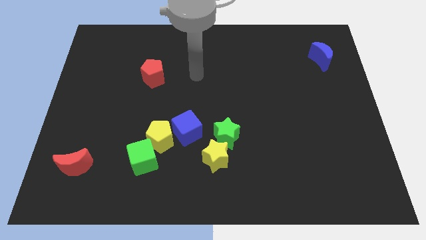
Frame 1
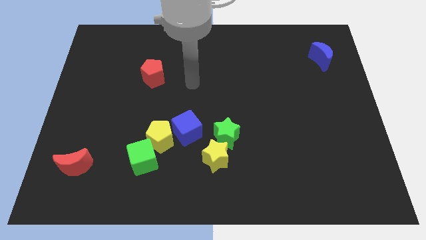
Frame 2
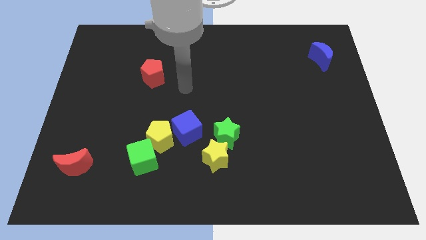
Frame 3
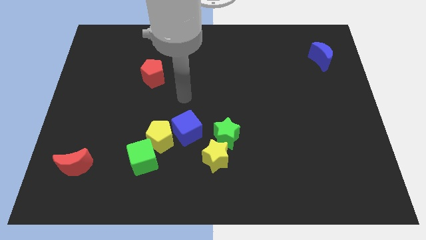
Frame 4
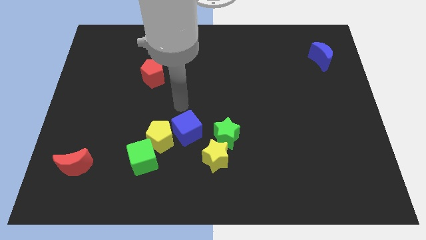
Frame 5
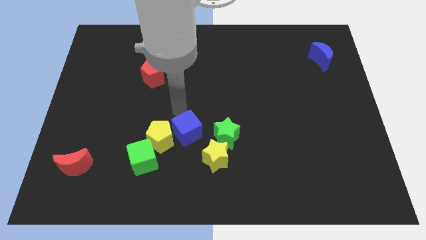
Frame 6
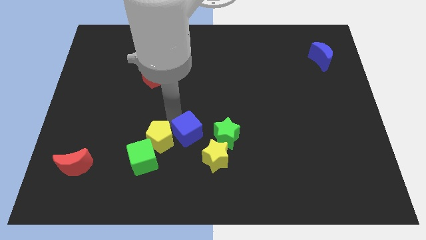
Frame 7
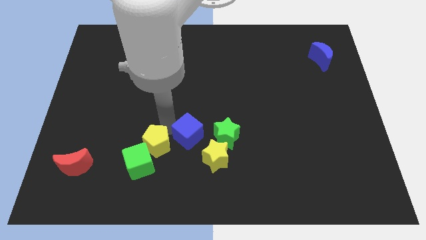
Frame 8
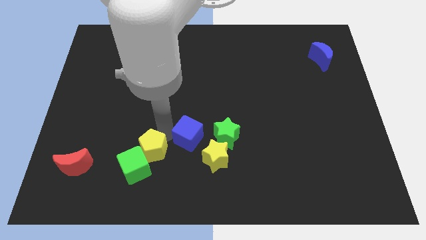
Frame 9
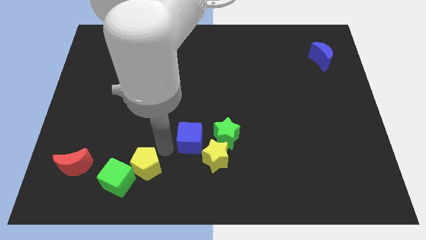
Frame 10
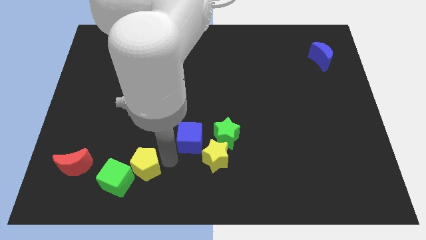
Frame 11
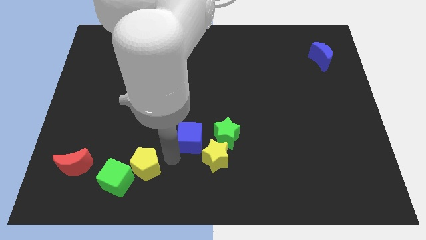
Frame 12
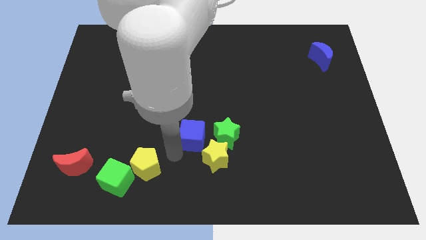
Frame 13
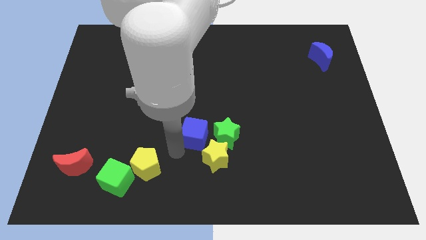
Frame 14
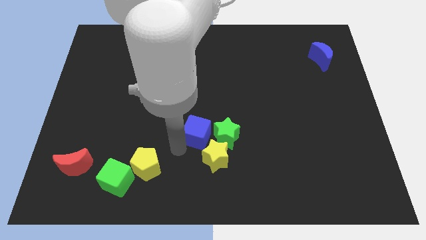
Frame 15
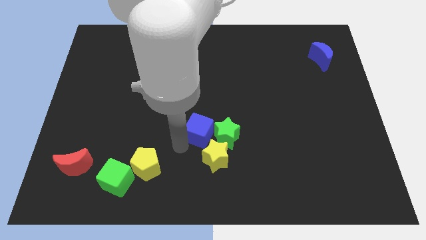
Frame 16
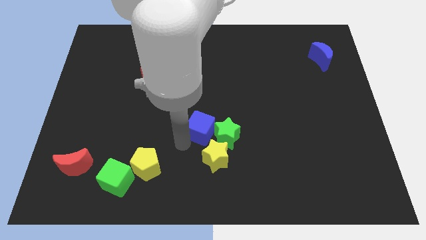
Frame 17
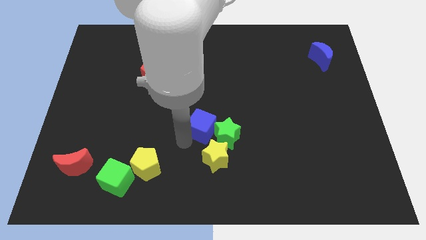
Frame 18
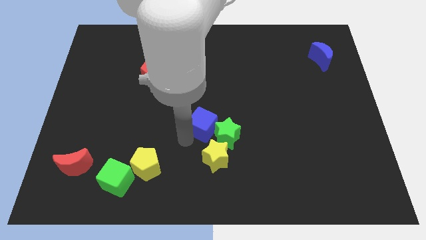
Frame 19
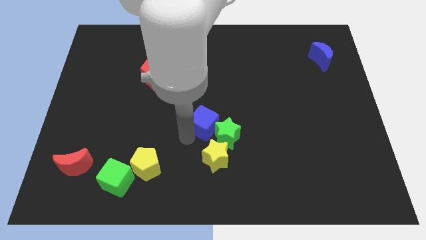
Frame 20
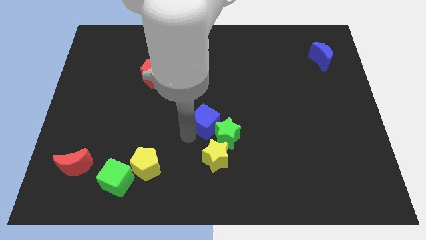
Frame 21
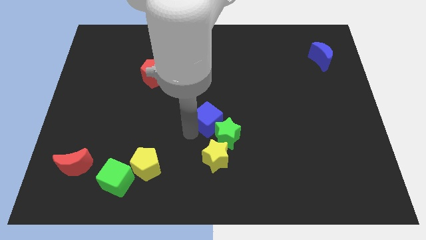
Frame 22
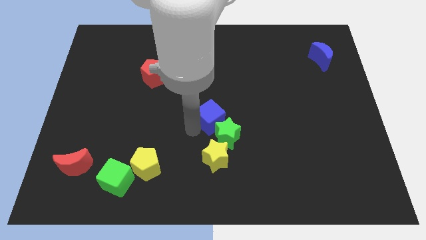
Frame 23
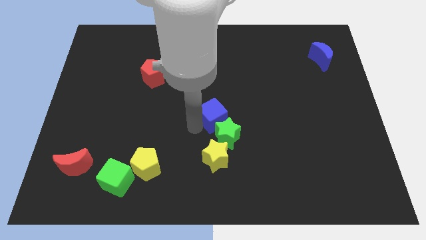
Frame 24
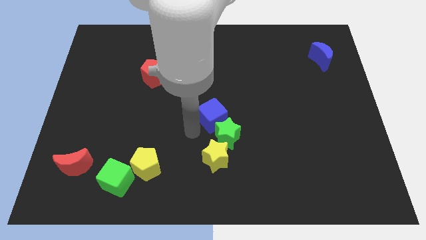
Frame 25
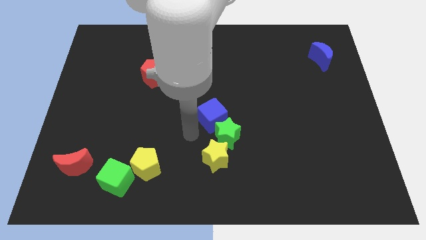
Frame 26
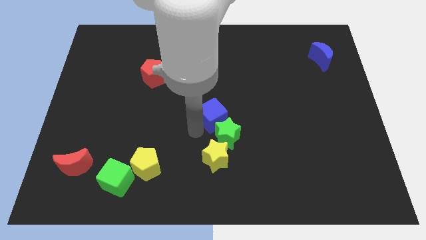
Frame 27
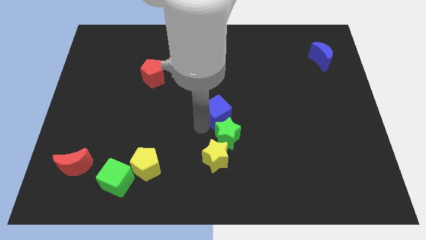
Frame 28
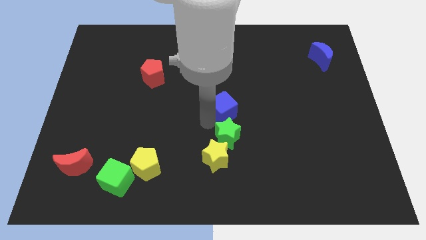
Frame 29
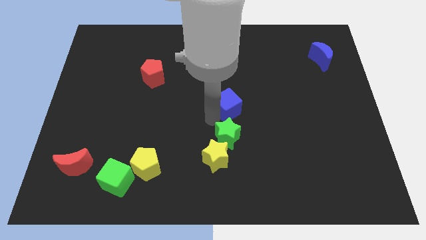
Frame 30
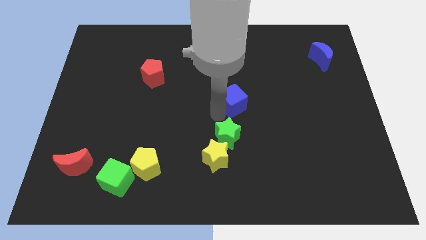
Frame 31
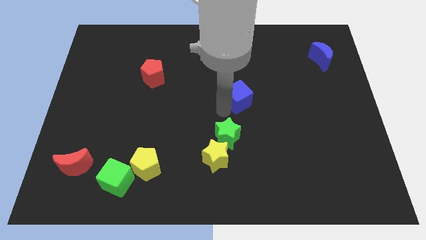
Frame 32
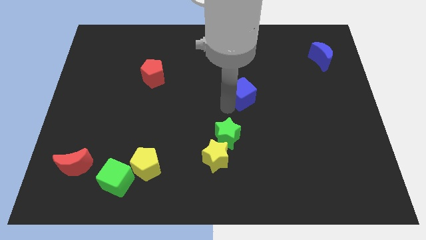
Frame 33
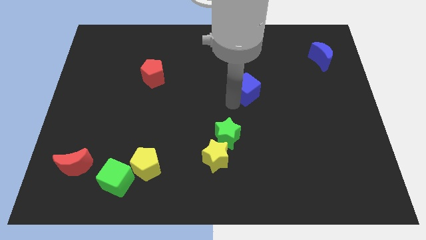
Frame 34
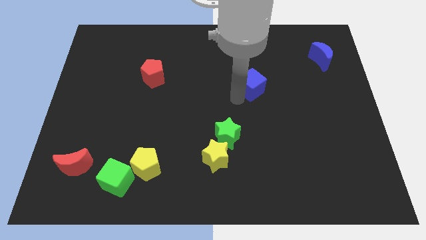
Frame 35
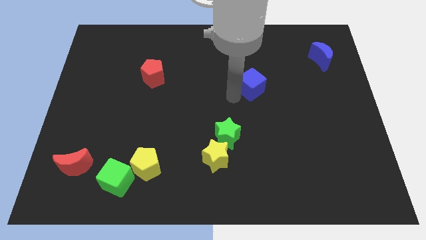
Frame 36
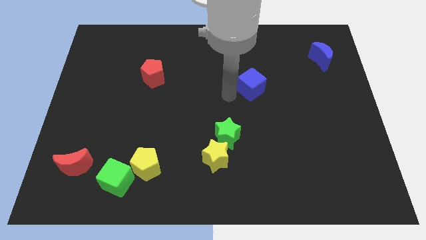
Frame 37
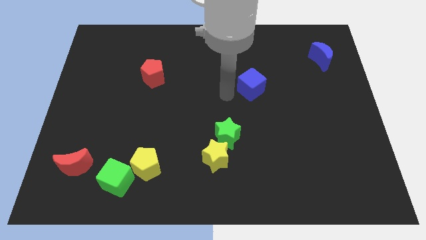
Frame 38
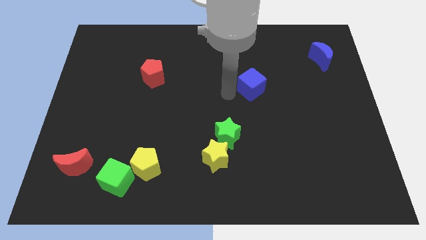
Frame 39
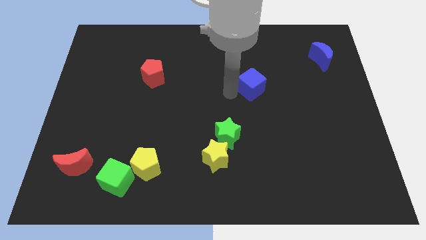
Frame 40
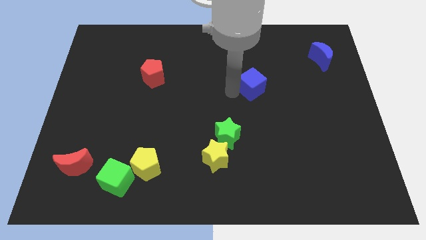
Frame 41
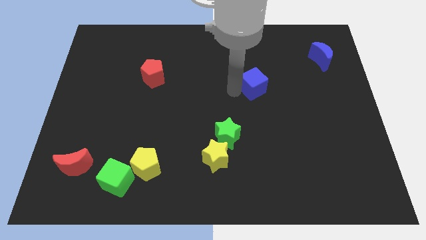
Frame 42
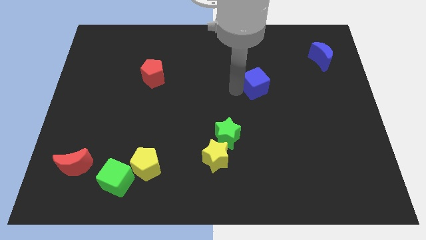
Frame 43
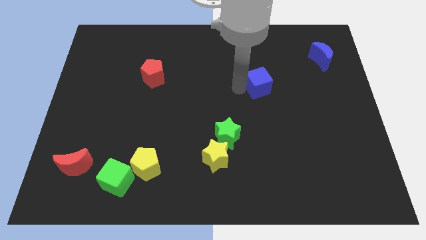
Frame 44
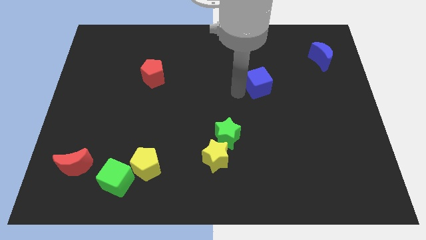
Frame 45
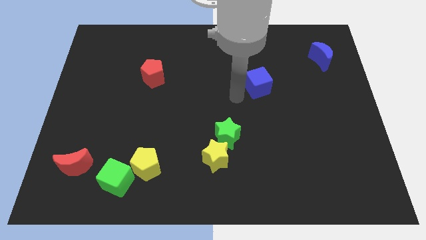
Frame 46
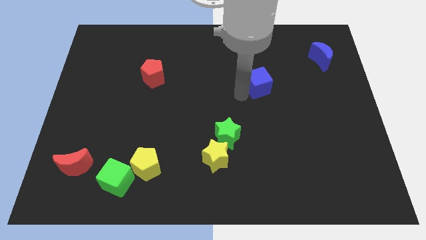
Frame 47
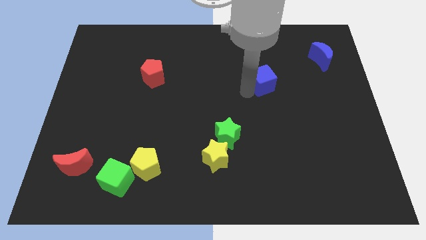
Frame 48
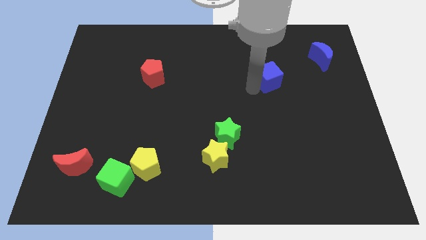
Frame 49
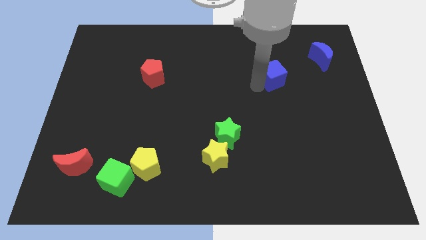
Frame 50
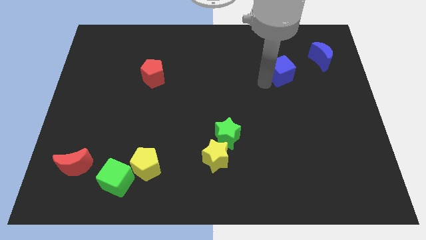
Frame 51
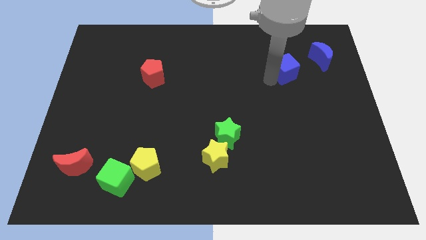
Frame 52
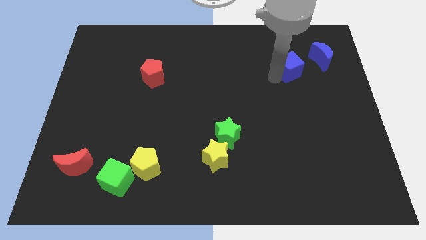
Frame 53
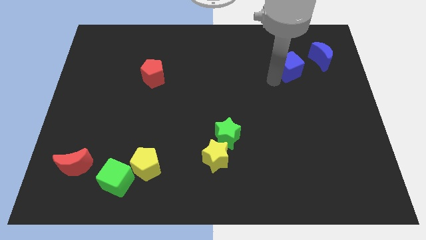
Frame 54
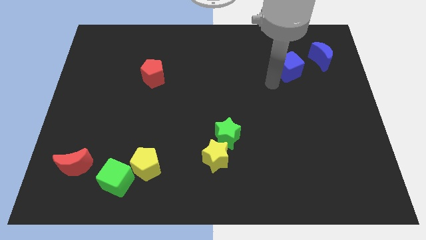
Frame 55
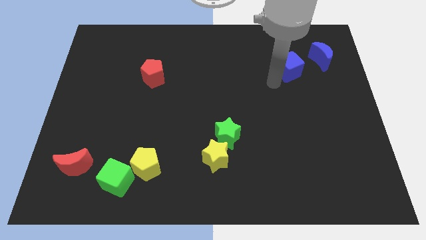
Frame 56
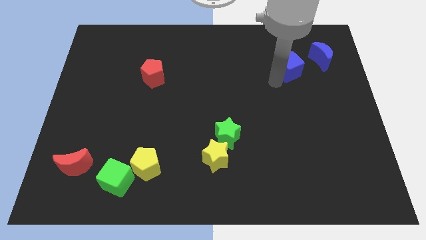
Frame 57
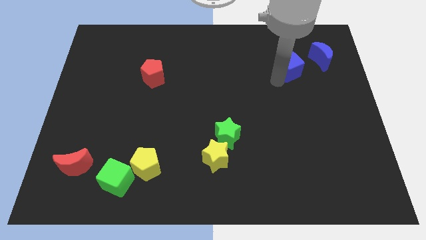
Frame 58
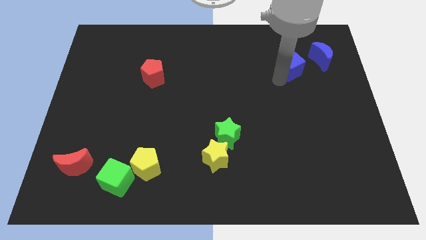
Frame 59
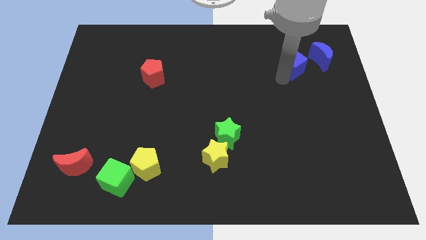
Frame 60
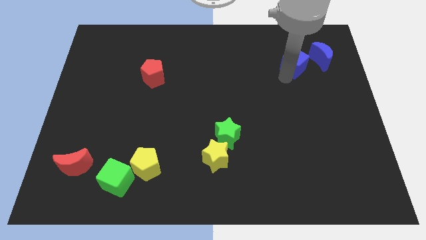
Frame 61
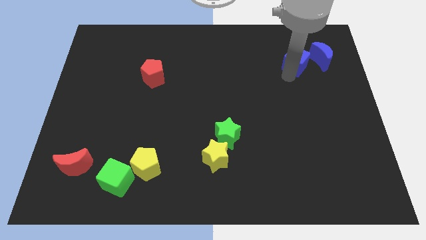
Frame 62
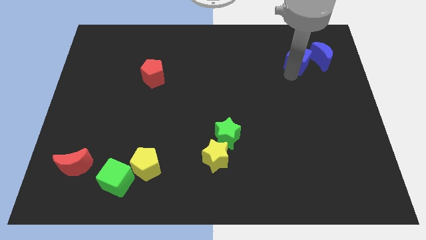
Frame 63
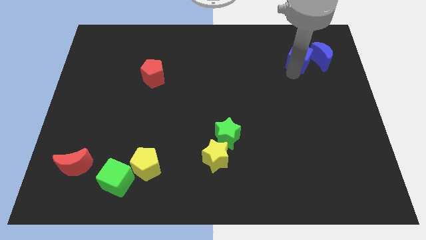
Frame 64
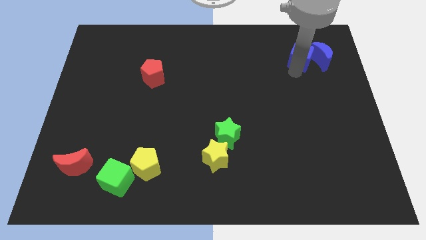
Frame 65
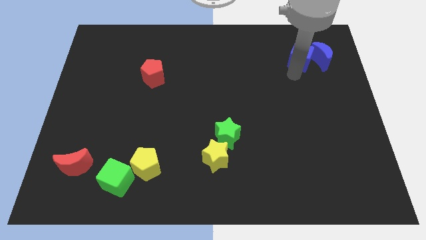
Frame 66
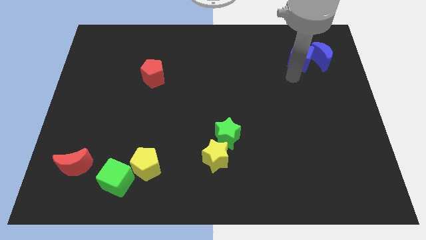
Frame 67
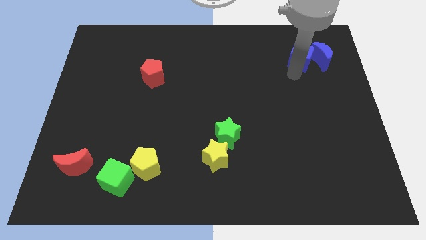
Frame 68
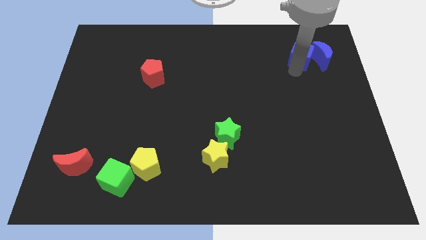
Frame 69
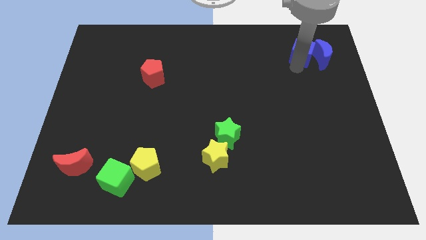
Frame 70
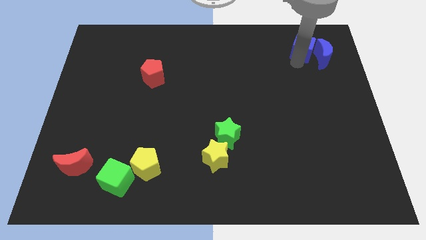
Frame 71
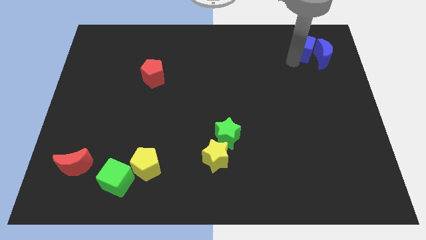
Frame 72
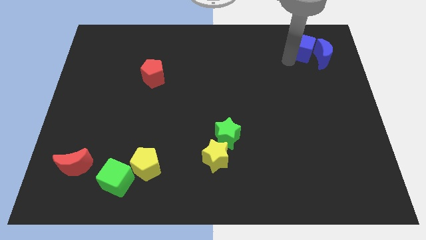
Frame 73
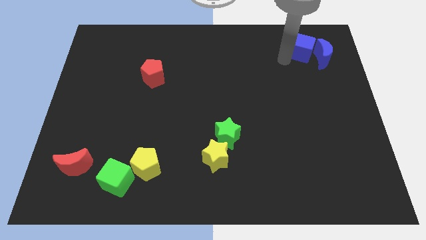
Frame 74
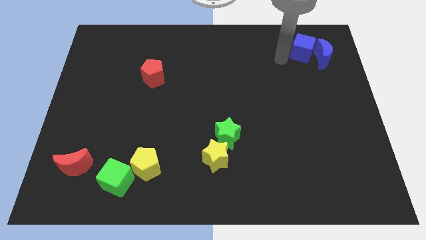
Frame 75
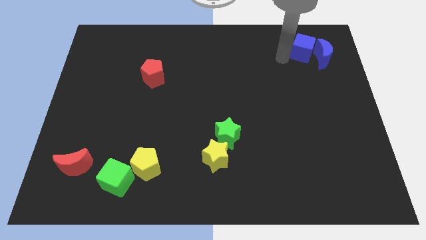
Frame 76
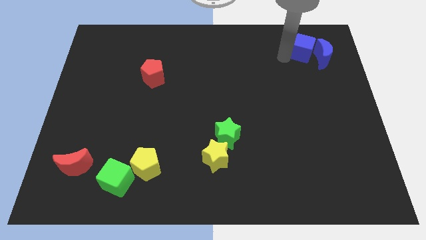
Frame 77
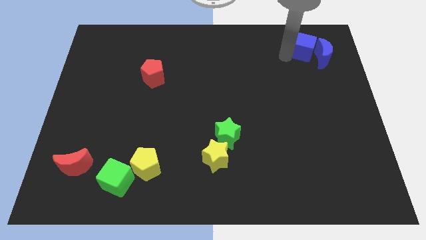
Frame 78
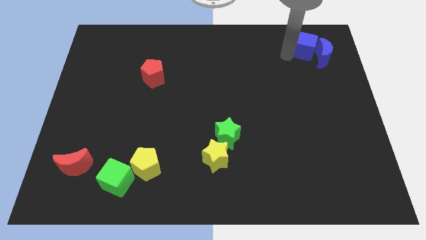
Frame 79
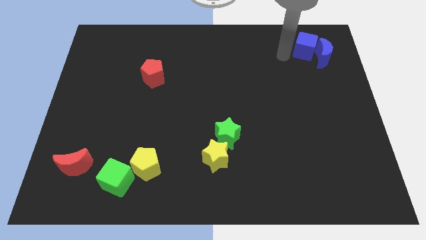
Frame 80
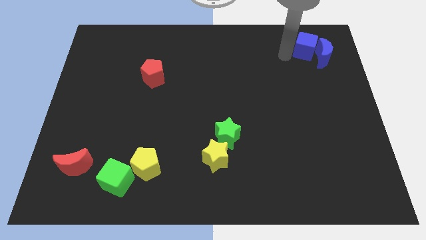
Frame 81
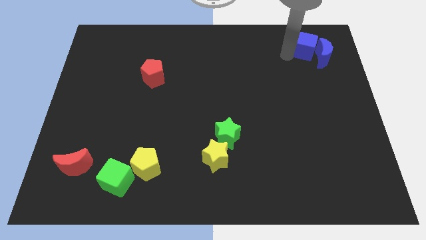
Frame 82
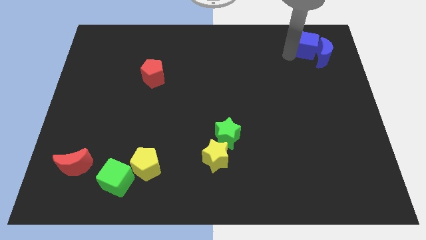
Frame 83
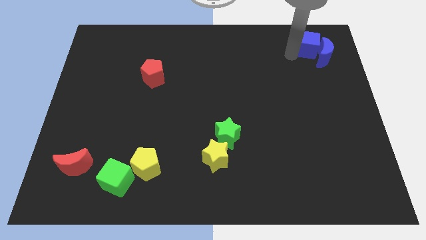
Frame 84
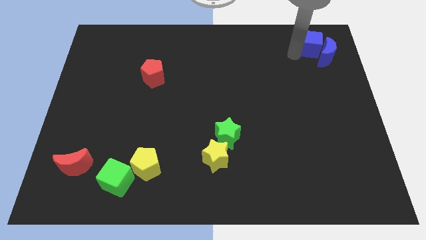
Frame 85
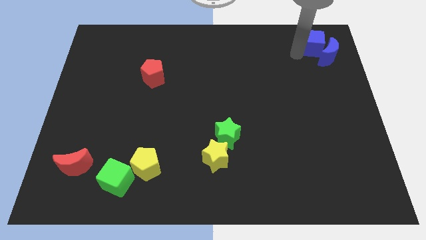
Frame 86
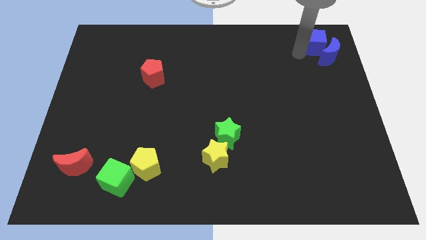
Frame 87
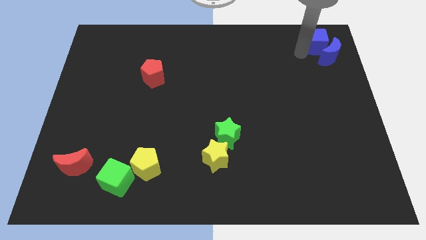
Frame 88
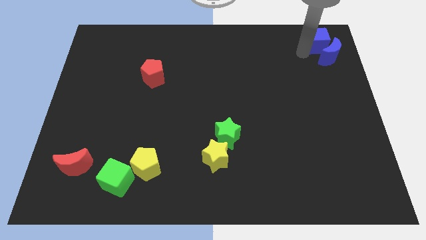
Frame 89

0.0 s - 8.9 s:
push the blue cube to the top right corner
